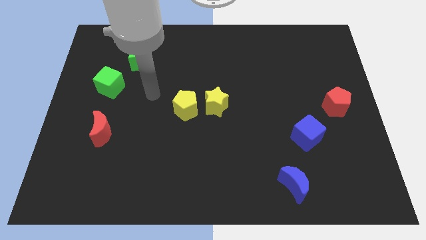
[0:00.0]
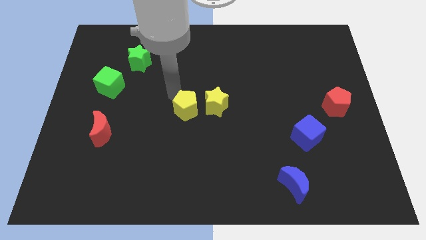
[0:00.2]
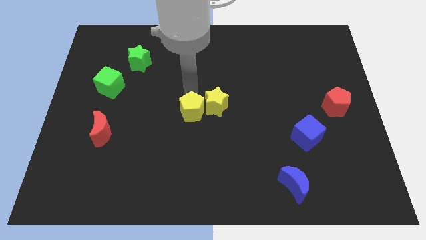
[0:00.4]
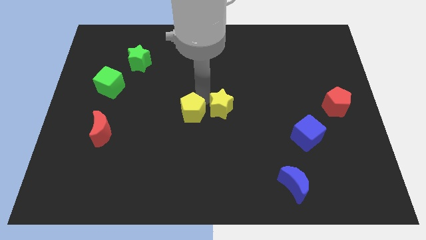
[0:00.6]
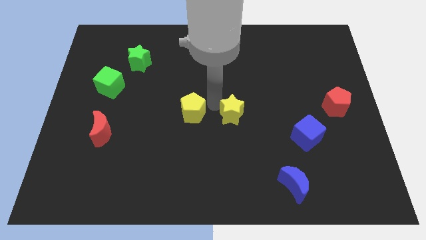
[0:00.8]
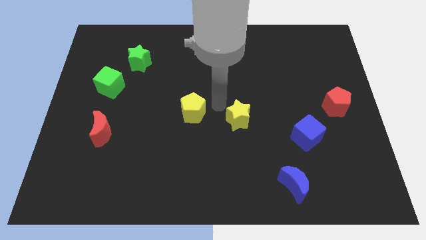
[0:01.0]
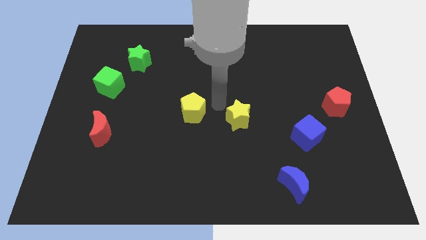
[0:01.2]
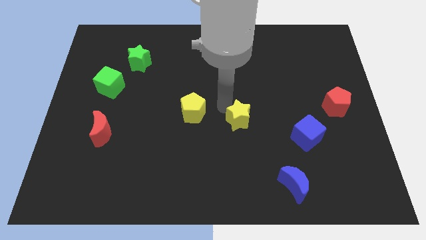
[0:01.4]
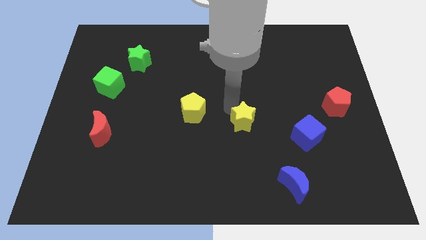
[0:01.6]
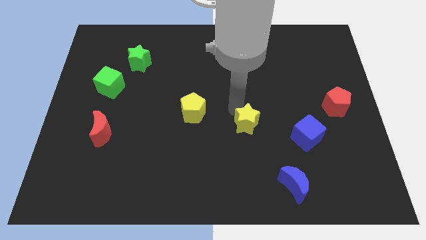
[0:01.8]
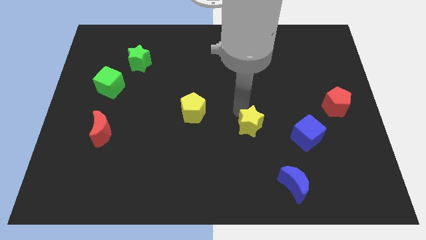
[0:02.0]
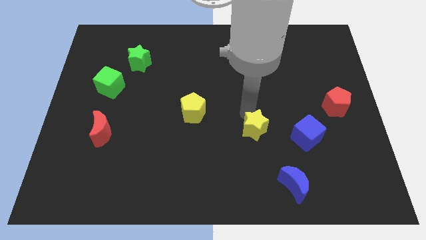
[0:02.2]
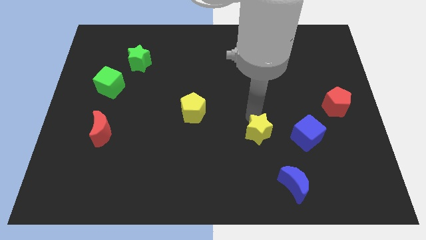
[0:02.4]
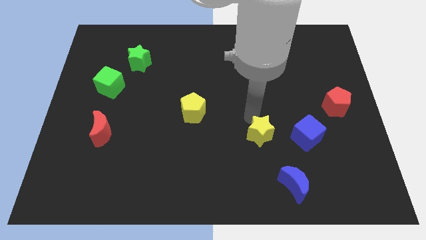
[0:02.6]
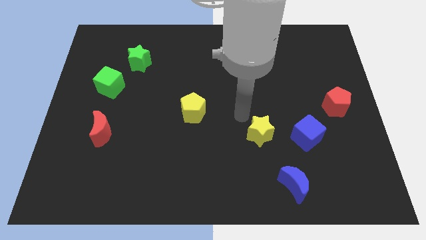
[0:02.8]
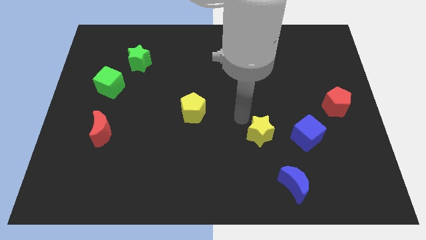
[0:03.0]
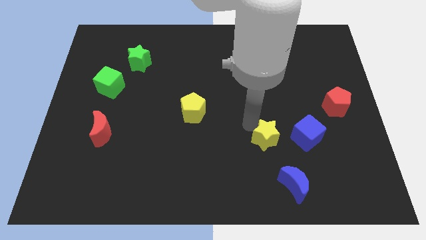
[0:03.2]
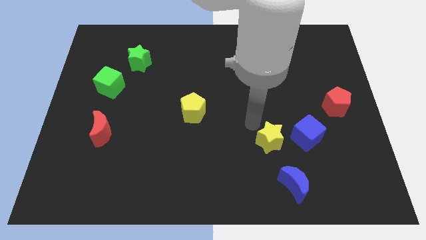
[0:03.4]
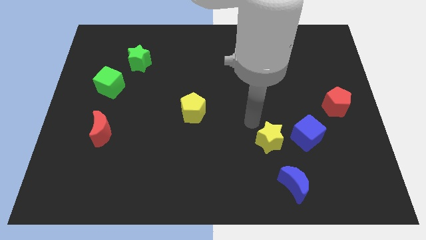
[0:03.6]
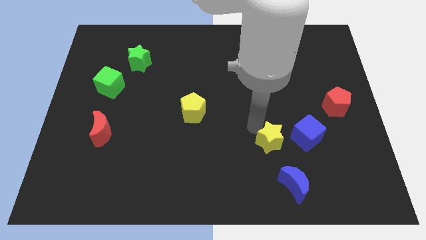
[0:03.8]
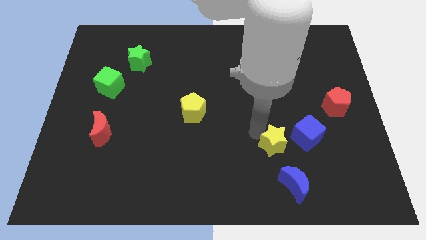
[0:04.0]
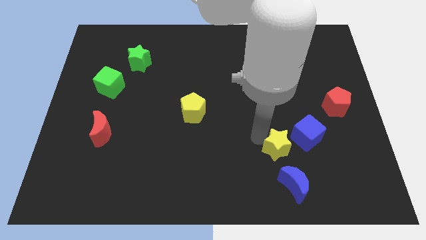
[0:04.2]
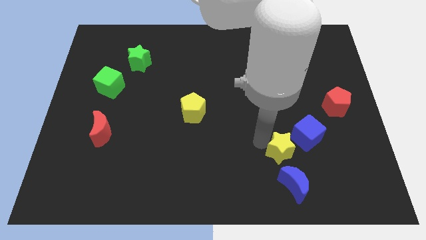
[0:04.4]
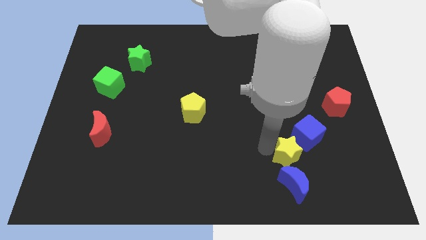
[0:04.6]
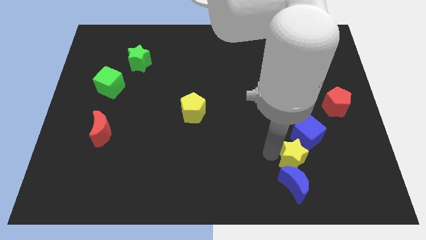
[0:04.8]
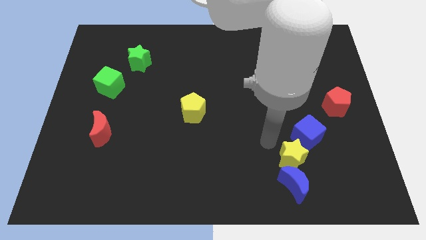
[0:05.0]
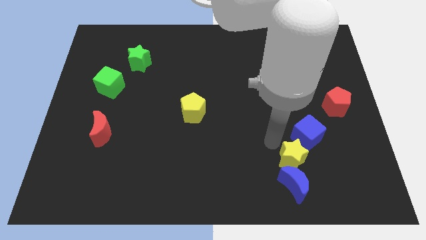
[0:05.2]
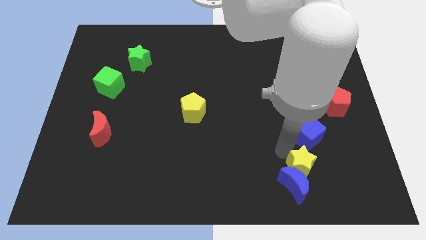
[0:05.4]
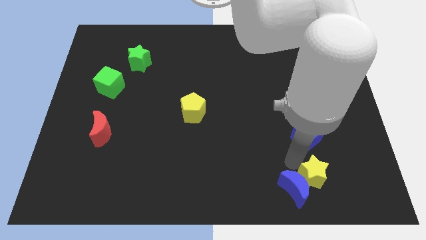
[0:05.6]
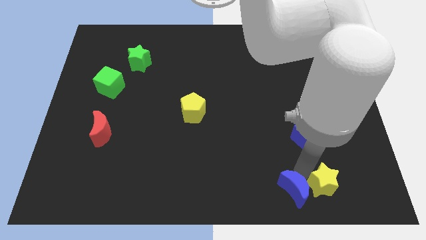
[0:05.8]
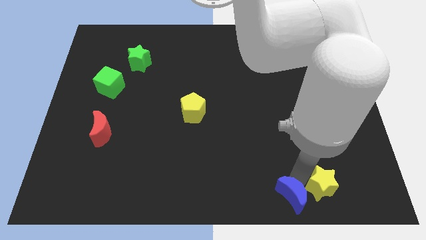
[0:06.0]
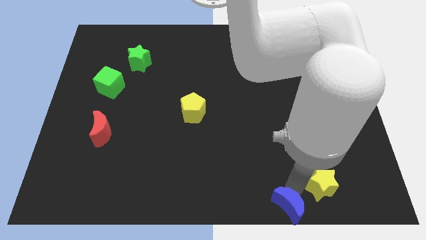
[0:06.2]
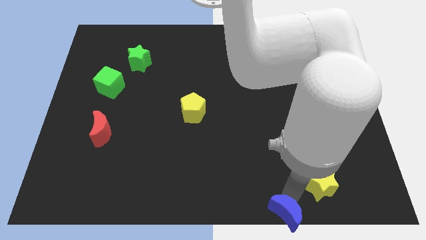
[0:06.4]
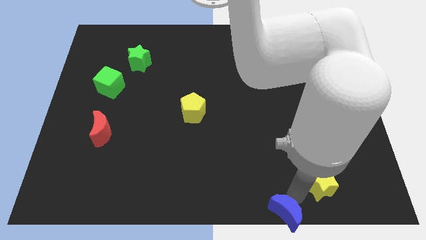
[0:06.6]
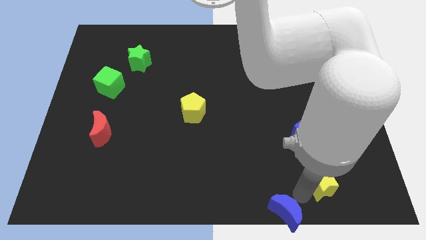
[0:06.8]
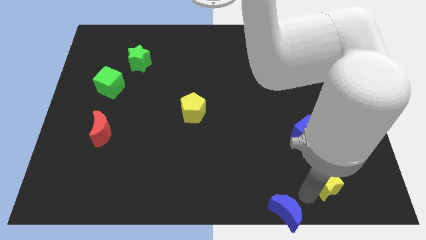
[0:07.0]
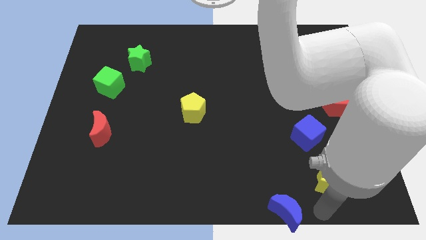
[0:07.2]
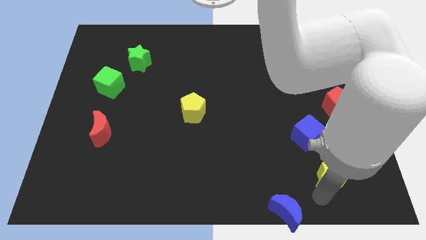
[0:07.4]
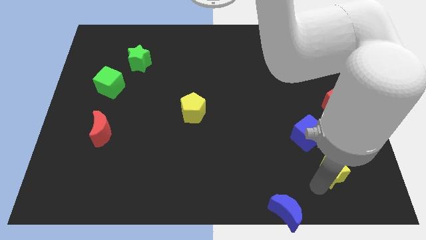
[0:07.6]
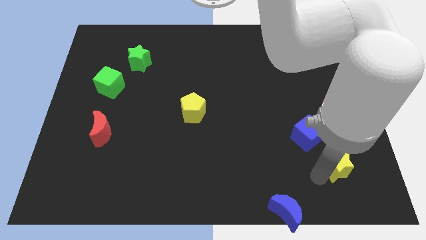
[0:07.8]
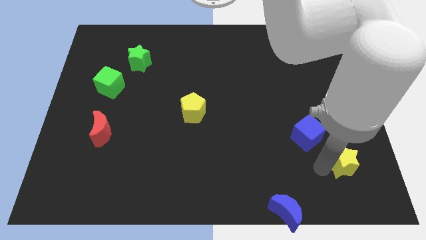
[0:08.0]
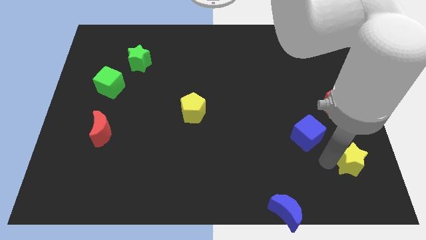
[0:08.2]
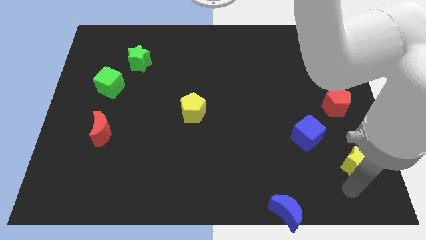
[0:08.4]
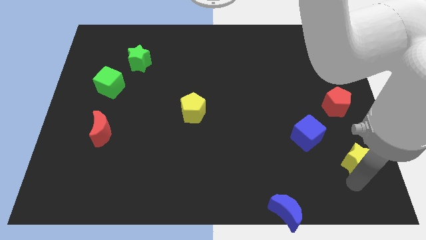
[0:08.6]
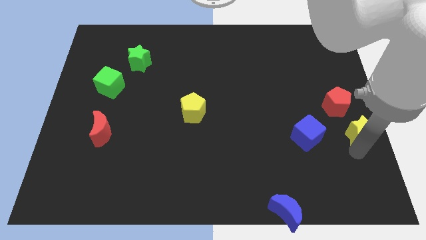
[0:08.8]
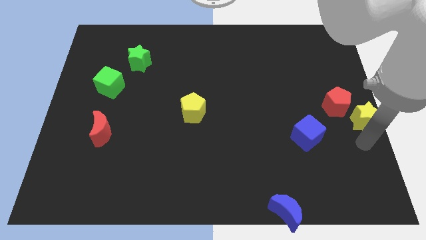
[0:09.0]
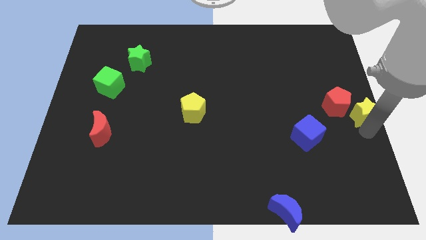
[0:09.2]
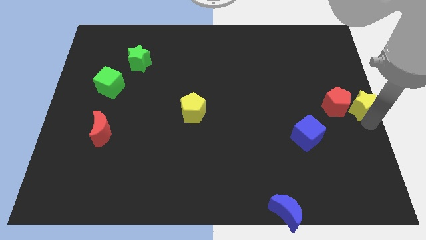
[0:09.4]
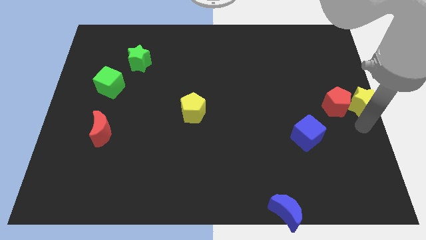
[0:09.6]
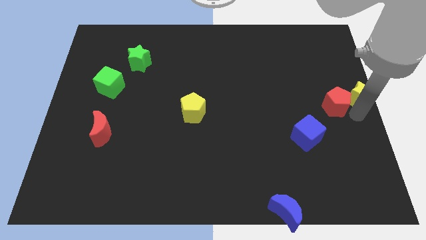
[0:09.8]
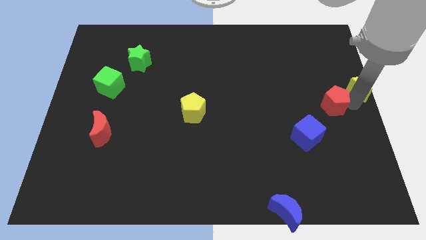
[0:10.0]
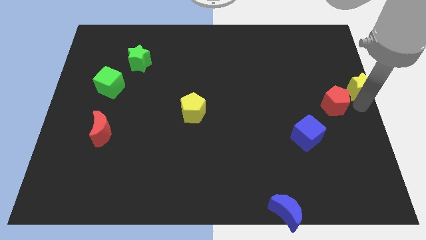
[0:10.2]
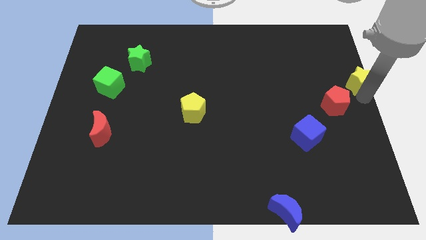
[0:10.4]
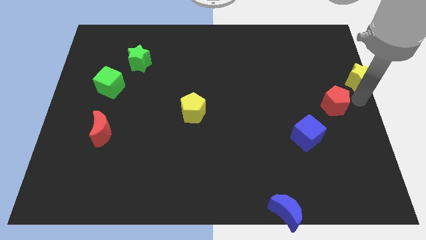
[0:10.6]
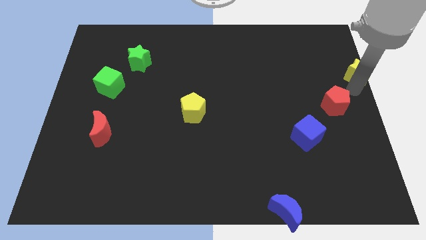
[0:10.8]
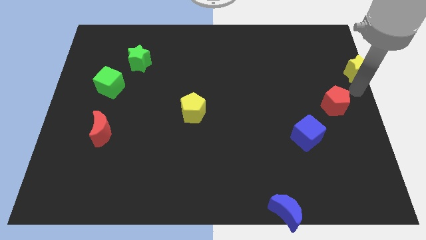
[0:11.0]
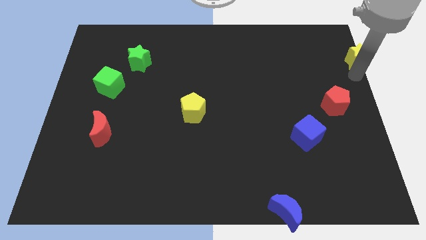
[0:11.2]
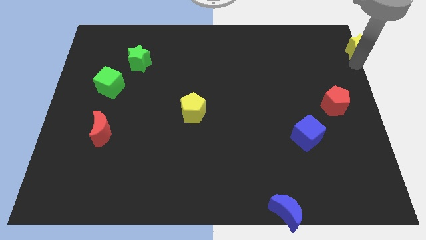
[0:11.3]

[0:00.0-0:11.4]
put the yellow star to the upper right corner
